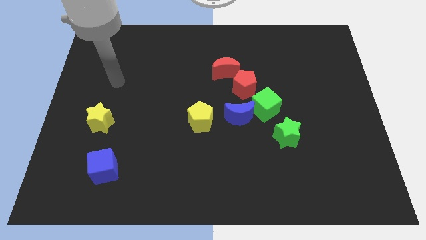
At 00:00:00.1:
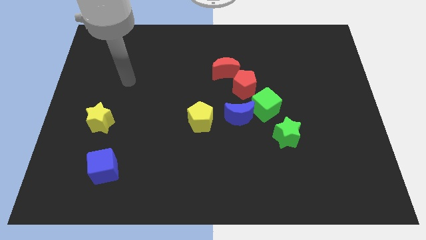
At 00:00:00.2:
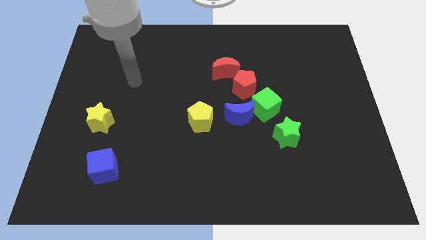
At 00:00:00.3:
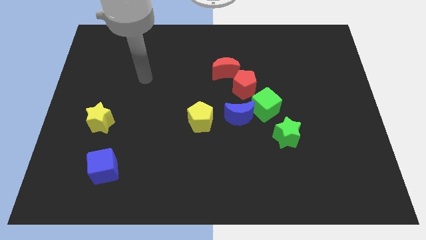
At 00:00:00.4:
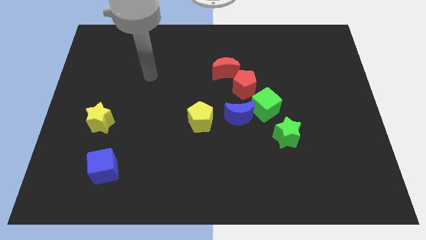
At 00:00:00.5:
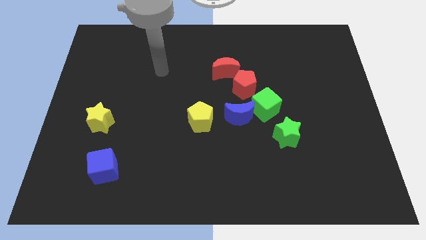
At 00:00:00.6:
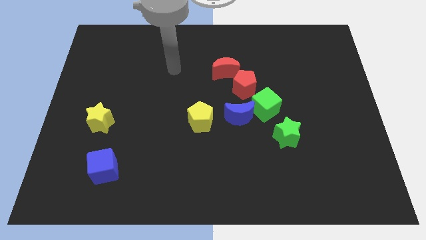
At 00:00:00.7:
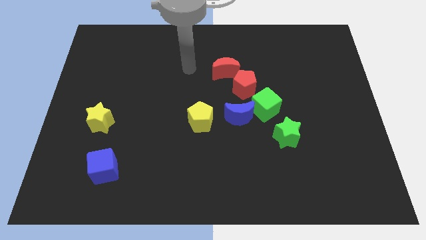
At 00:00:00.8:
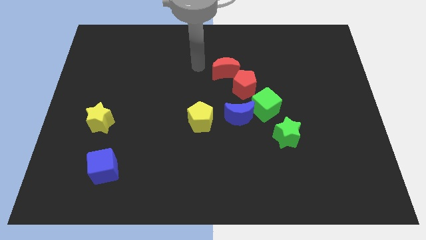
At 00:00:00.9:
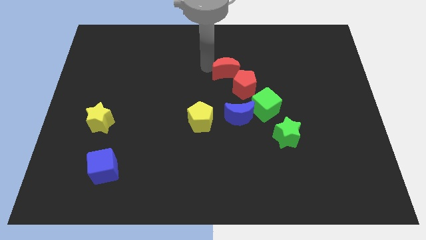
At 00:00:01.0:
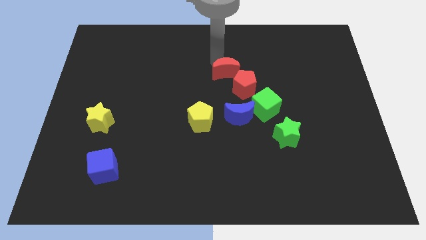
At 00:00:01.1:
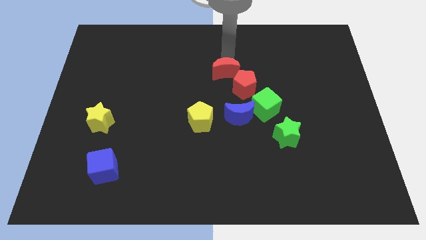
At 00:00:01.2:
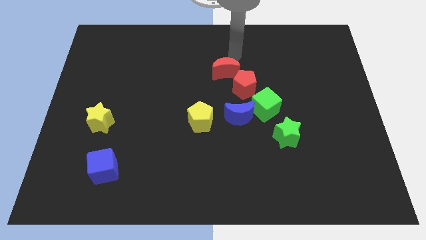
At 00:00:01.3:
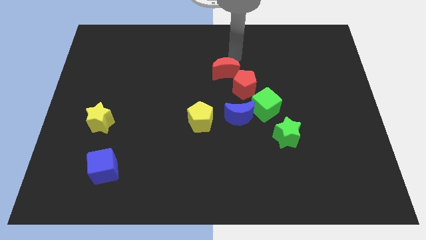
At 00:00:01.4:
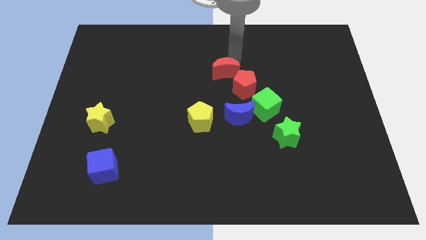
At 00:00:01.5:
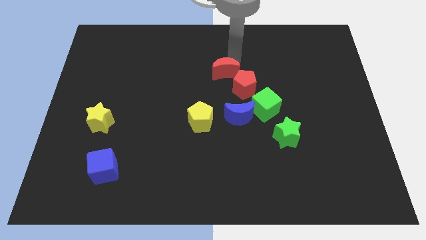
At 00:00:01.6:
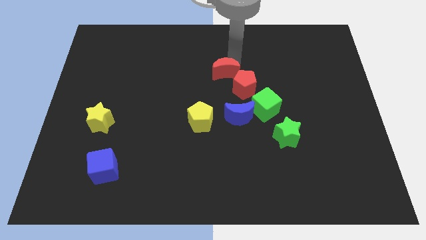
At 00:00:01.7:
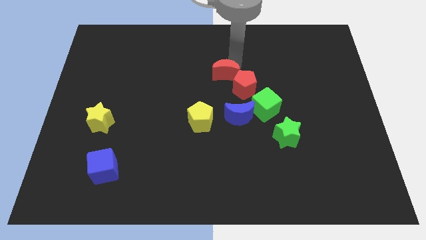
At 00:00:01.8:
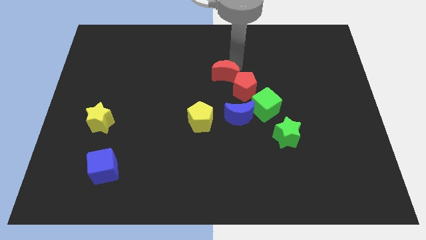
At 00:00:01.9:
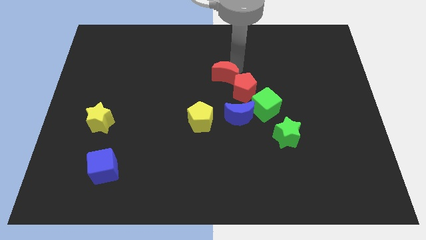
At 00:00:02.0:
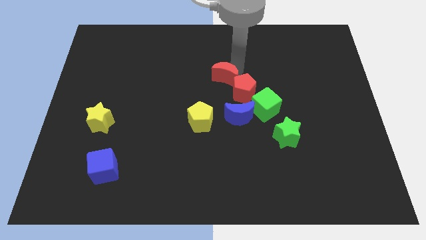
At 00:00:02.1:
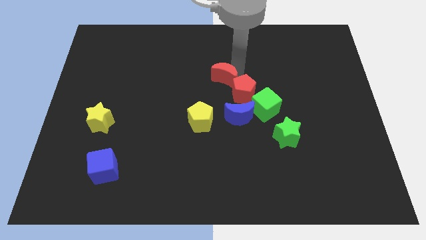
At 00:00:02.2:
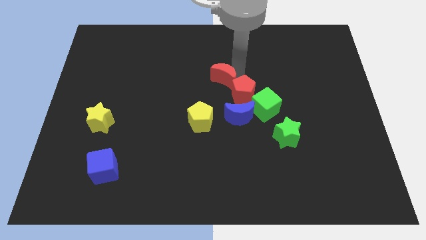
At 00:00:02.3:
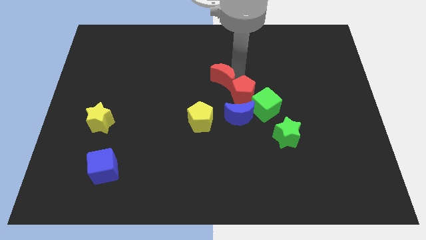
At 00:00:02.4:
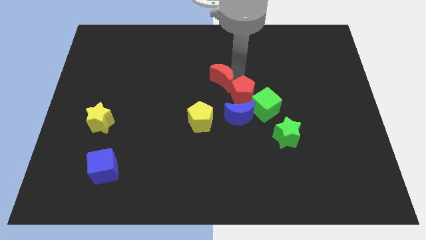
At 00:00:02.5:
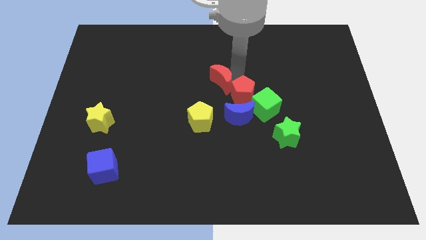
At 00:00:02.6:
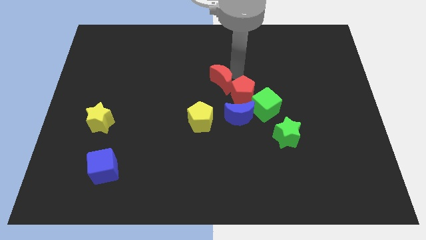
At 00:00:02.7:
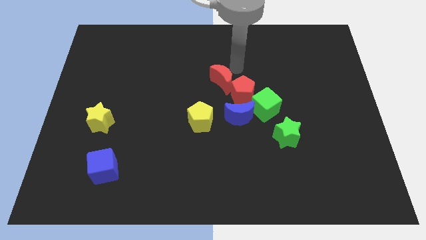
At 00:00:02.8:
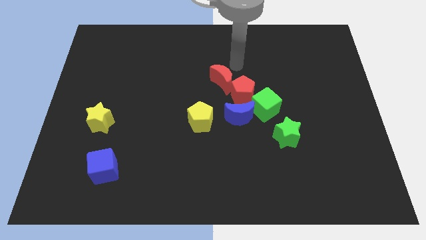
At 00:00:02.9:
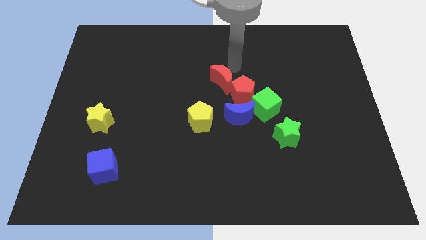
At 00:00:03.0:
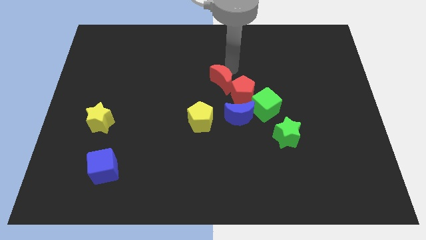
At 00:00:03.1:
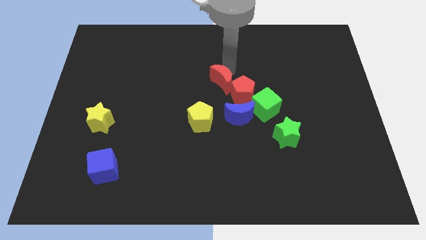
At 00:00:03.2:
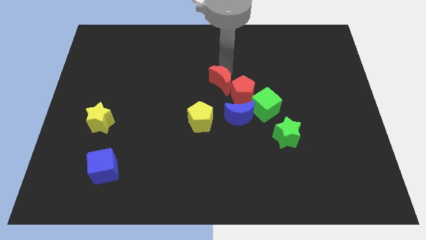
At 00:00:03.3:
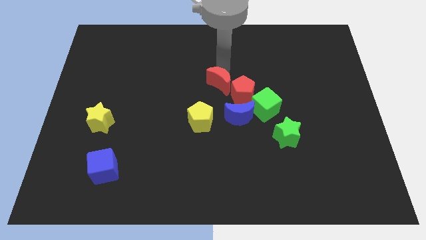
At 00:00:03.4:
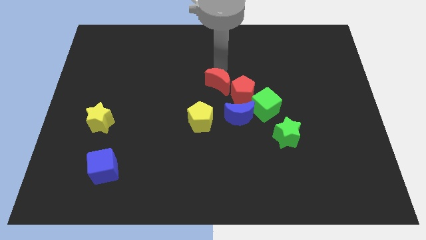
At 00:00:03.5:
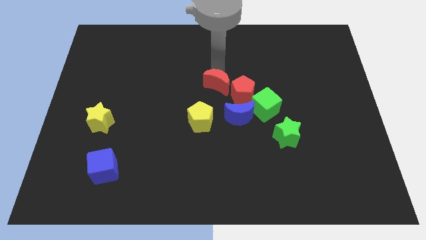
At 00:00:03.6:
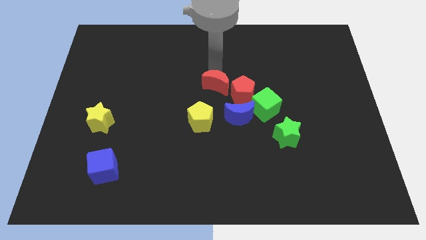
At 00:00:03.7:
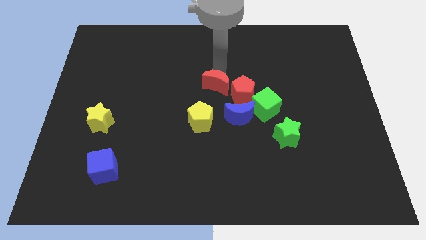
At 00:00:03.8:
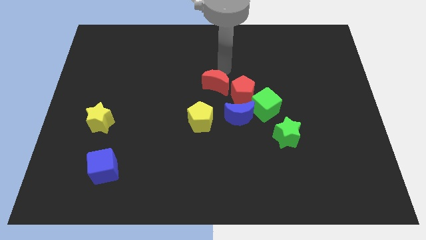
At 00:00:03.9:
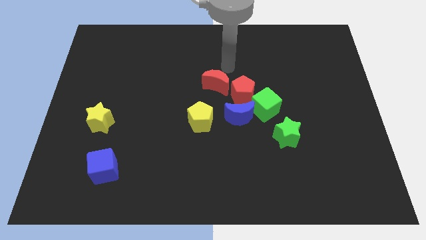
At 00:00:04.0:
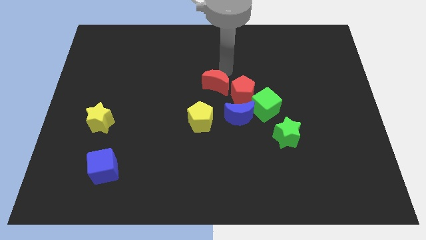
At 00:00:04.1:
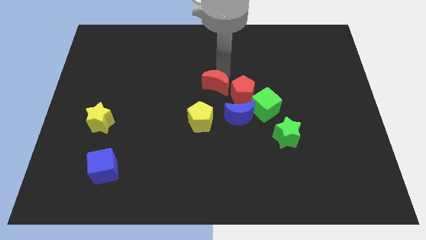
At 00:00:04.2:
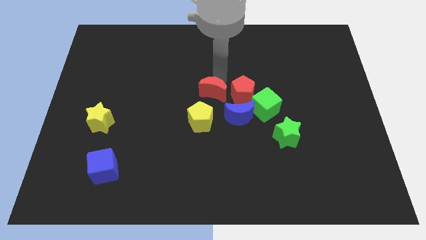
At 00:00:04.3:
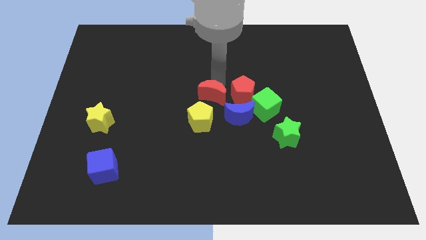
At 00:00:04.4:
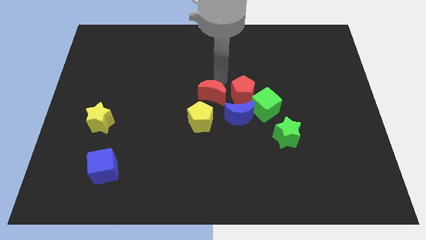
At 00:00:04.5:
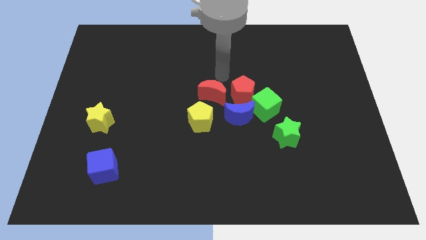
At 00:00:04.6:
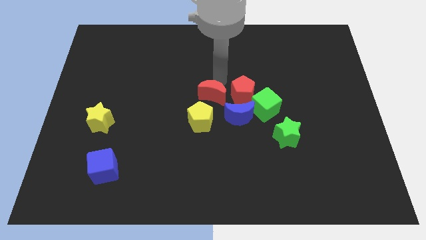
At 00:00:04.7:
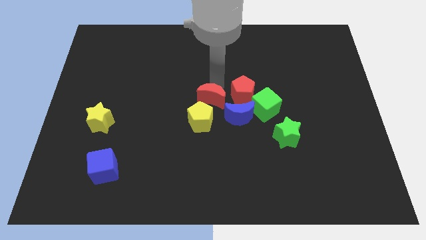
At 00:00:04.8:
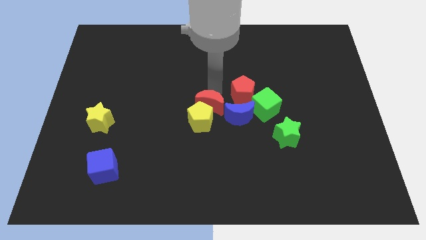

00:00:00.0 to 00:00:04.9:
slide the red moon to the yellow pentagon

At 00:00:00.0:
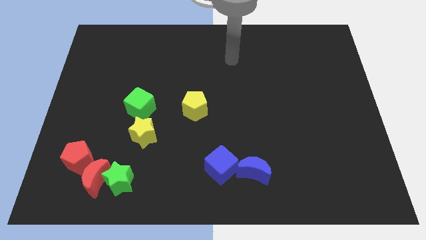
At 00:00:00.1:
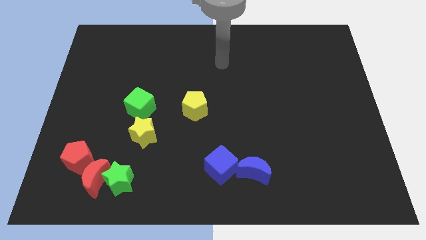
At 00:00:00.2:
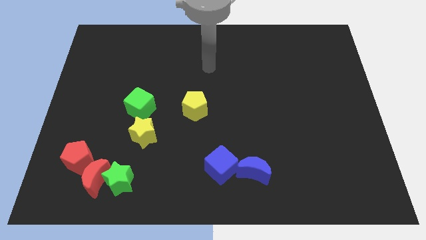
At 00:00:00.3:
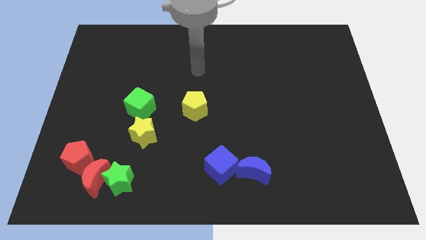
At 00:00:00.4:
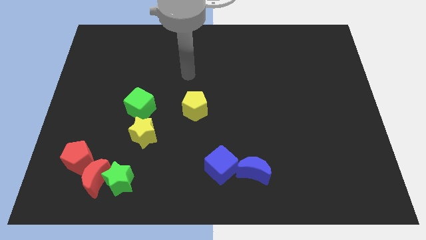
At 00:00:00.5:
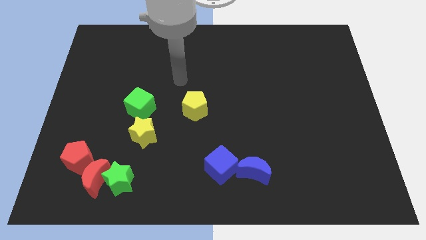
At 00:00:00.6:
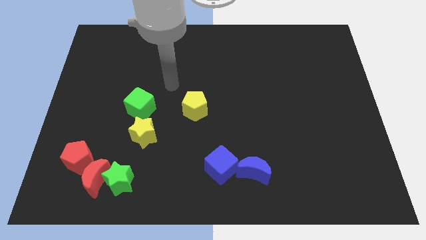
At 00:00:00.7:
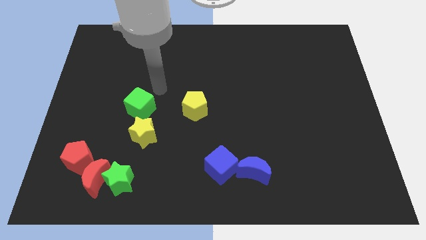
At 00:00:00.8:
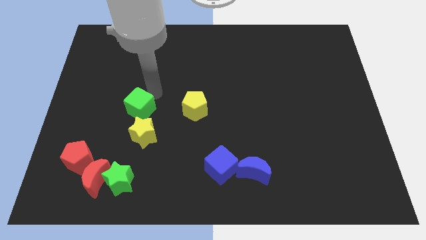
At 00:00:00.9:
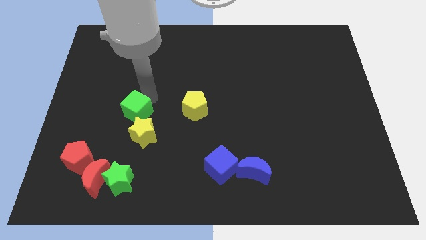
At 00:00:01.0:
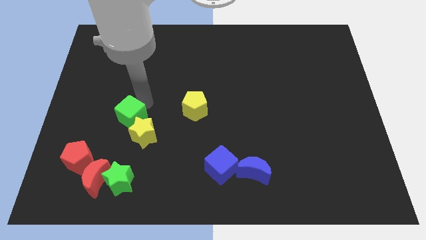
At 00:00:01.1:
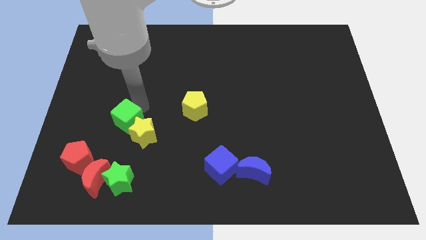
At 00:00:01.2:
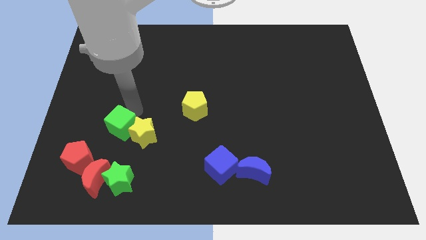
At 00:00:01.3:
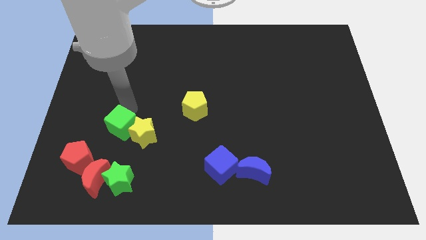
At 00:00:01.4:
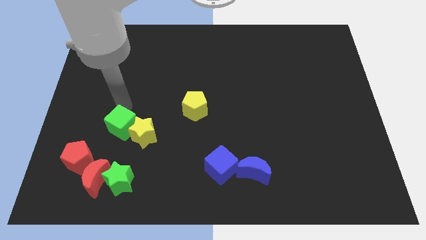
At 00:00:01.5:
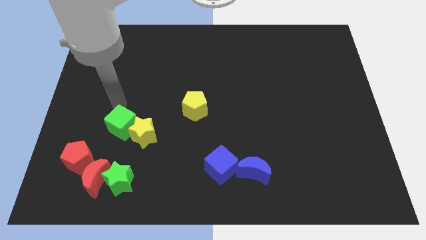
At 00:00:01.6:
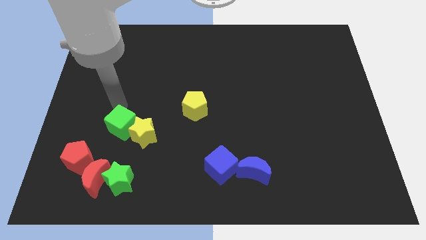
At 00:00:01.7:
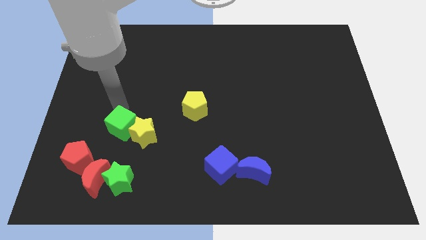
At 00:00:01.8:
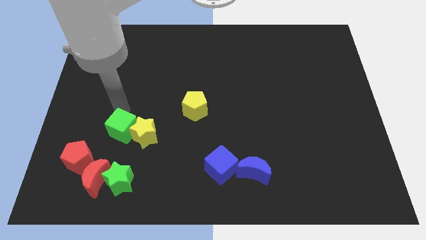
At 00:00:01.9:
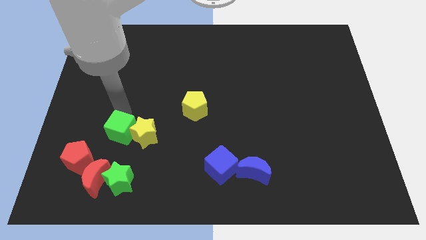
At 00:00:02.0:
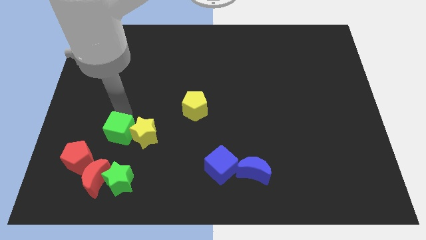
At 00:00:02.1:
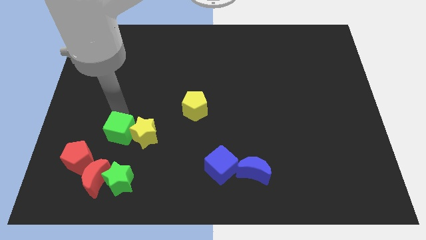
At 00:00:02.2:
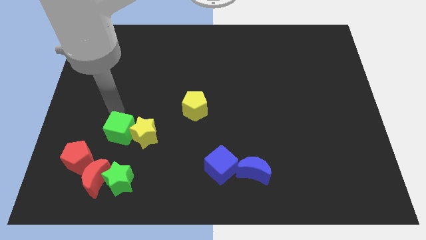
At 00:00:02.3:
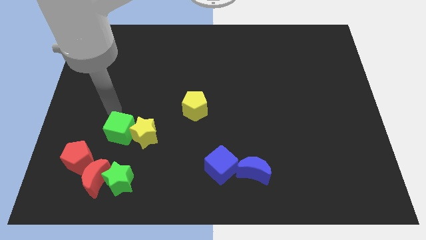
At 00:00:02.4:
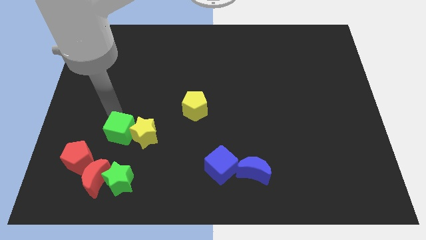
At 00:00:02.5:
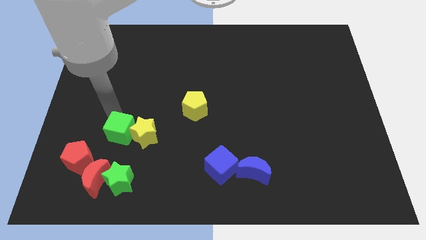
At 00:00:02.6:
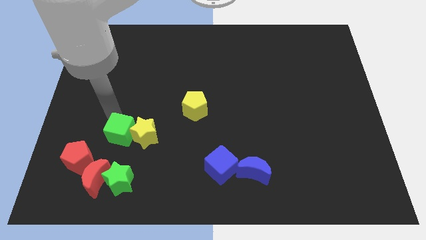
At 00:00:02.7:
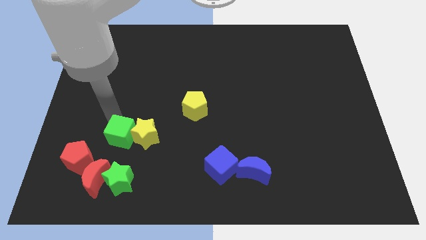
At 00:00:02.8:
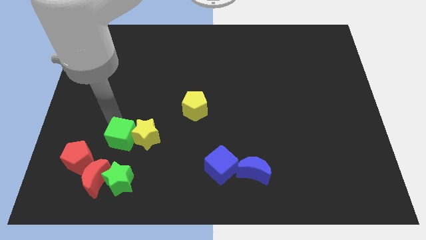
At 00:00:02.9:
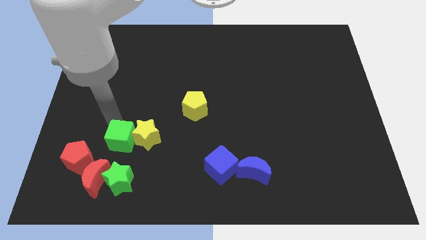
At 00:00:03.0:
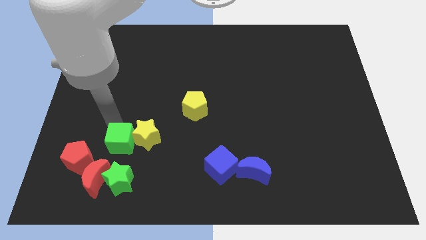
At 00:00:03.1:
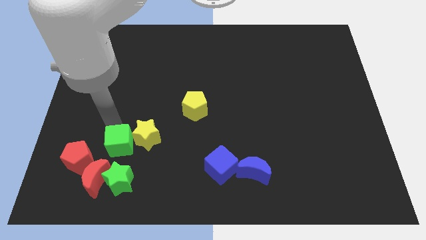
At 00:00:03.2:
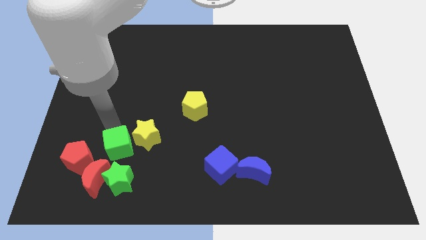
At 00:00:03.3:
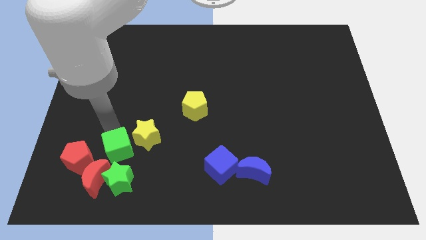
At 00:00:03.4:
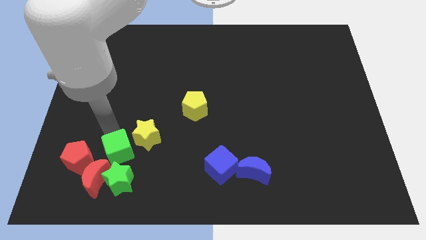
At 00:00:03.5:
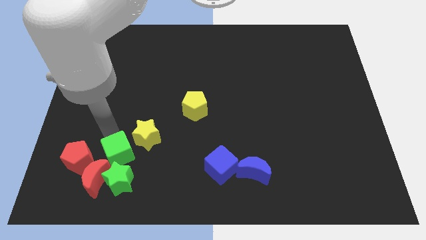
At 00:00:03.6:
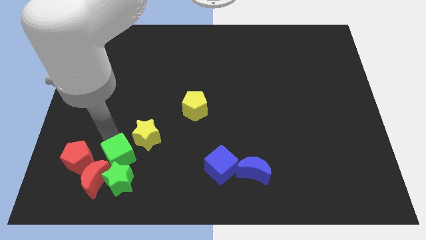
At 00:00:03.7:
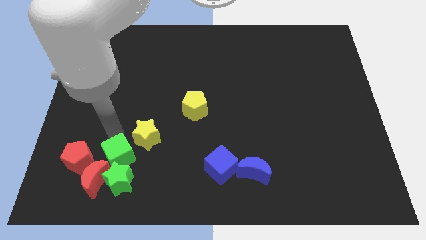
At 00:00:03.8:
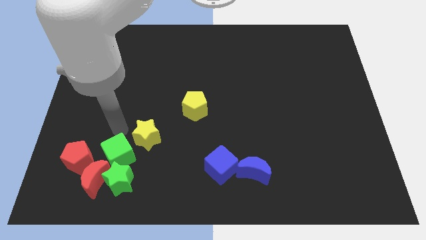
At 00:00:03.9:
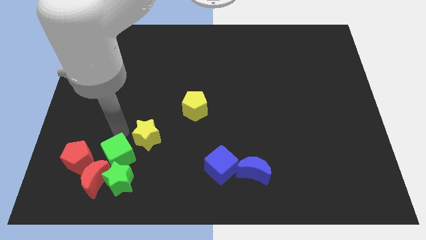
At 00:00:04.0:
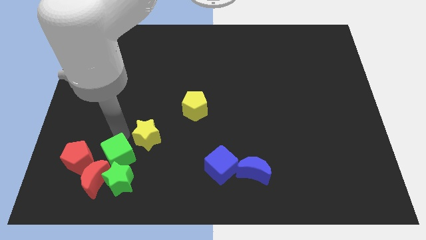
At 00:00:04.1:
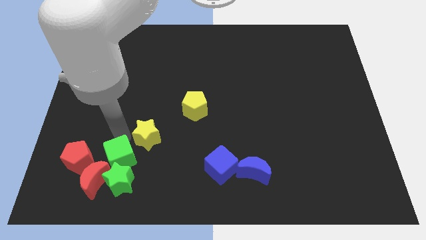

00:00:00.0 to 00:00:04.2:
put the green cube to the green star
